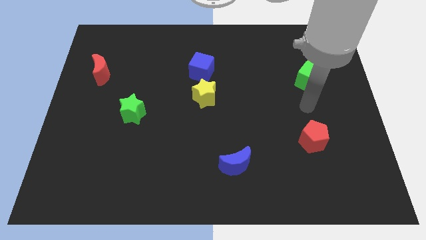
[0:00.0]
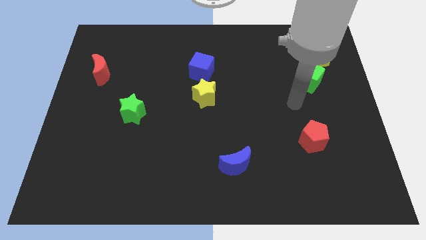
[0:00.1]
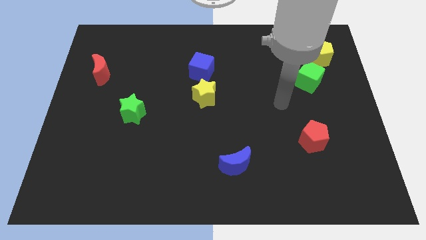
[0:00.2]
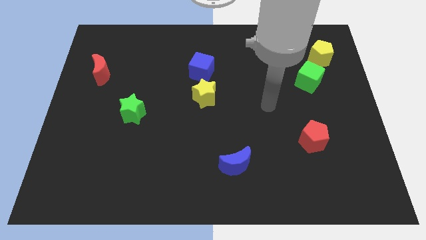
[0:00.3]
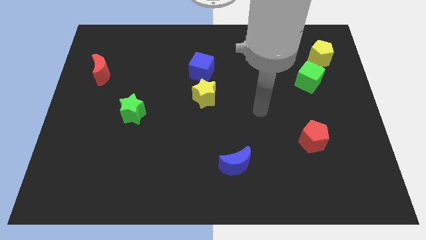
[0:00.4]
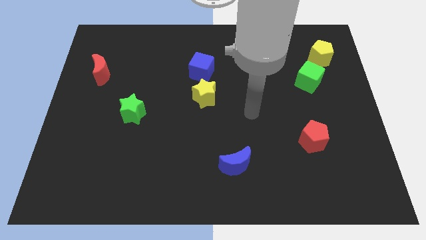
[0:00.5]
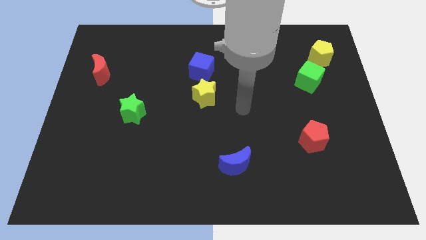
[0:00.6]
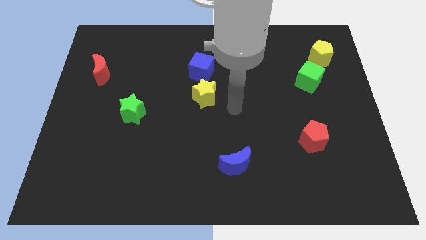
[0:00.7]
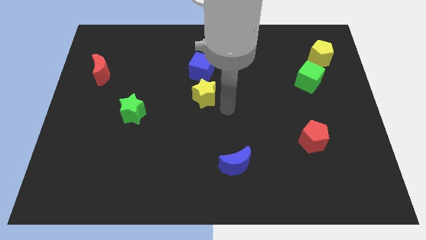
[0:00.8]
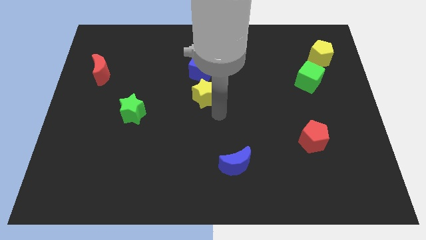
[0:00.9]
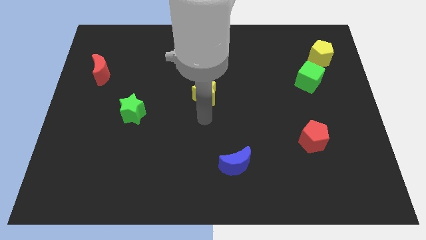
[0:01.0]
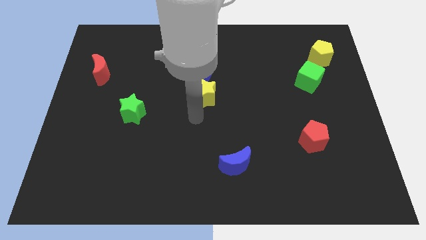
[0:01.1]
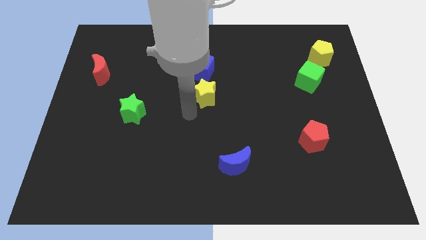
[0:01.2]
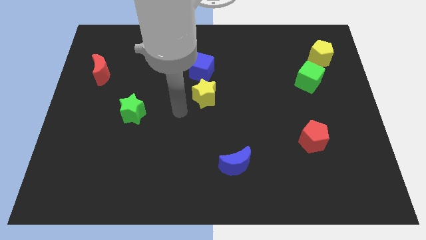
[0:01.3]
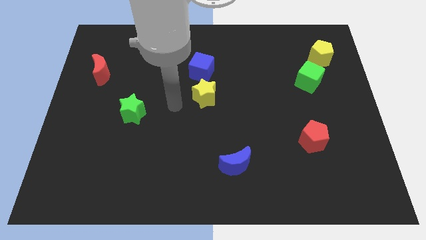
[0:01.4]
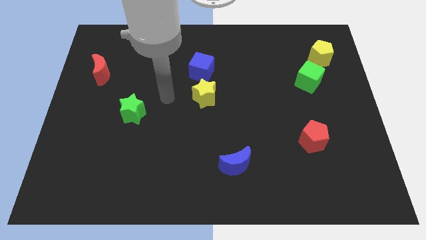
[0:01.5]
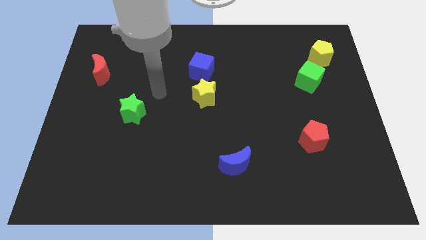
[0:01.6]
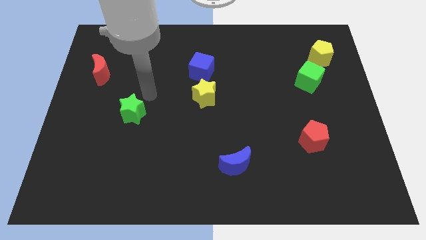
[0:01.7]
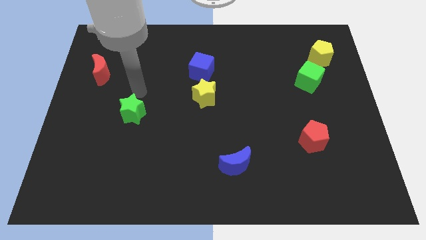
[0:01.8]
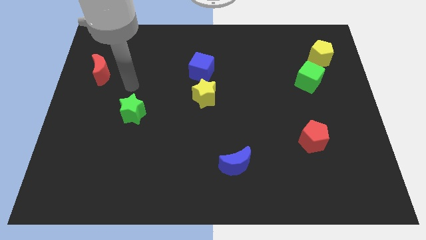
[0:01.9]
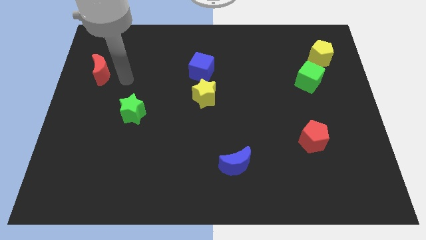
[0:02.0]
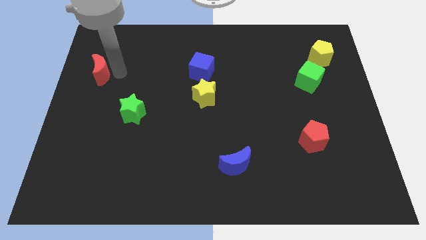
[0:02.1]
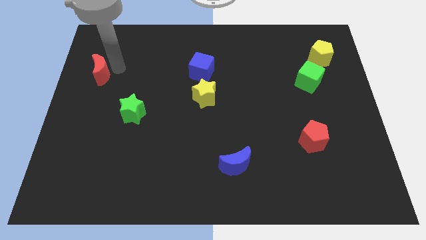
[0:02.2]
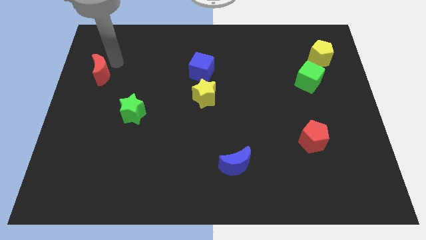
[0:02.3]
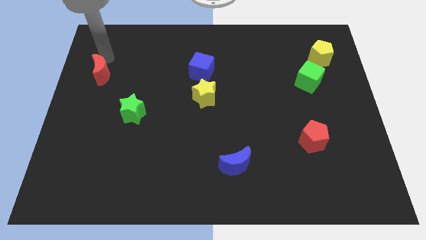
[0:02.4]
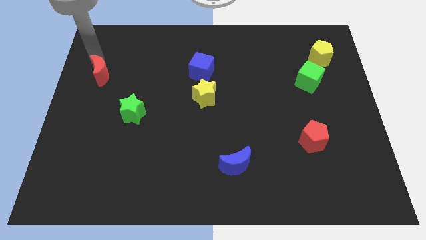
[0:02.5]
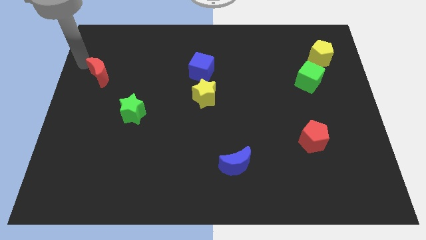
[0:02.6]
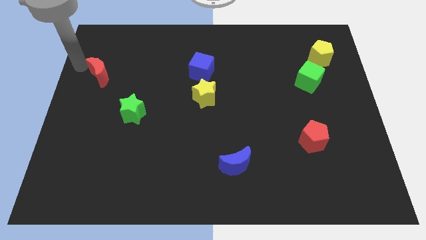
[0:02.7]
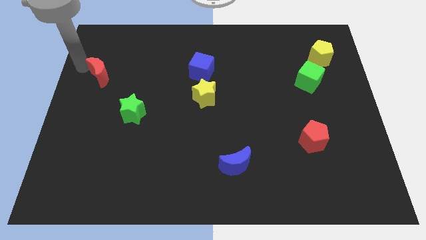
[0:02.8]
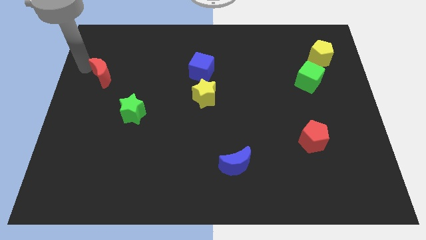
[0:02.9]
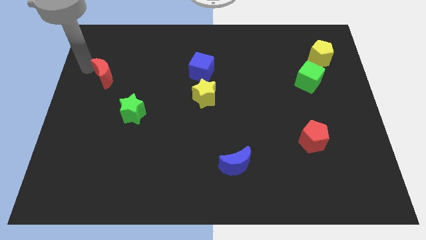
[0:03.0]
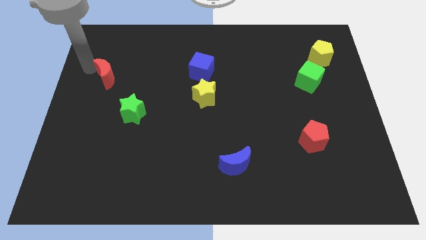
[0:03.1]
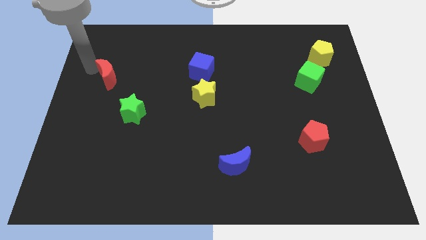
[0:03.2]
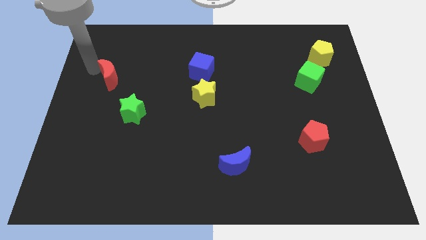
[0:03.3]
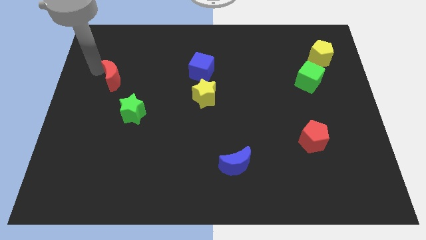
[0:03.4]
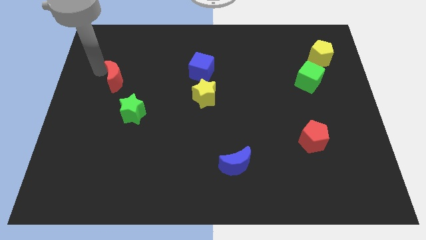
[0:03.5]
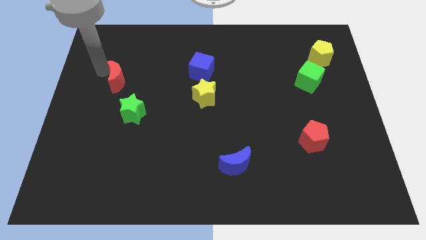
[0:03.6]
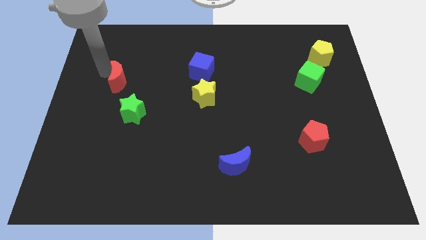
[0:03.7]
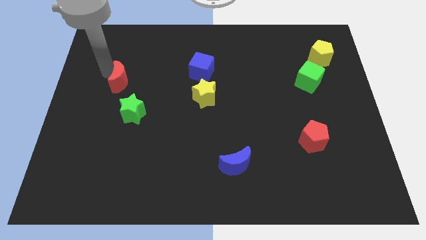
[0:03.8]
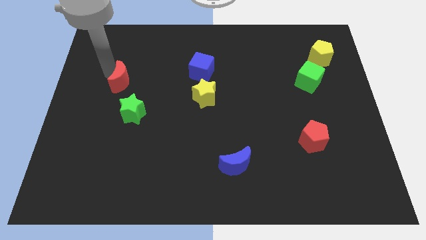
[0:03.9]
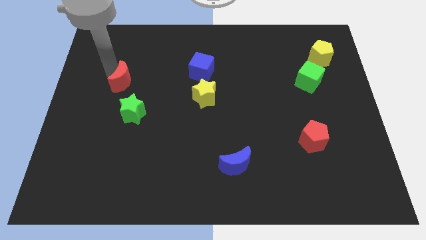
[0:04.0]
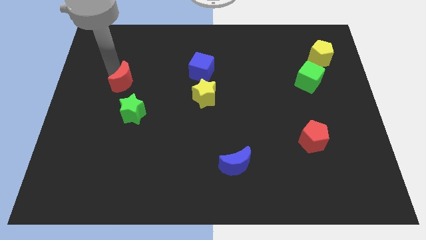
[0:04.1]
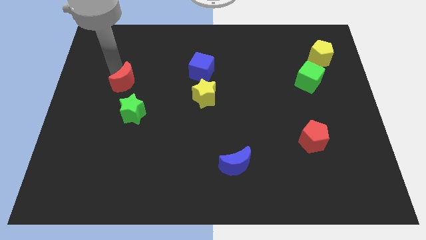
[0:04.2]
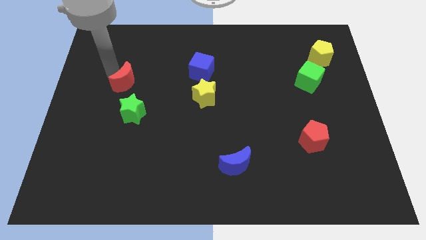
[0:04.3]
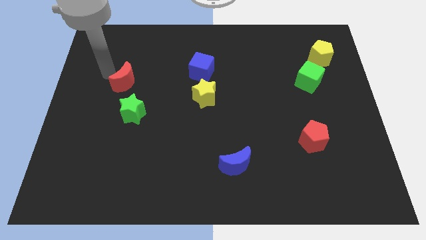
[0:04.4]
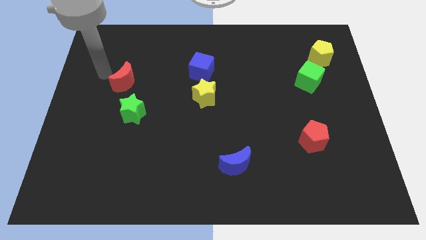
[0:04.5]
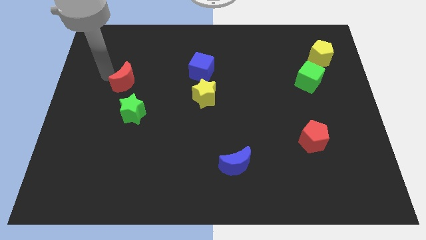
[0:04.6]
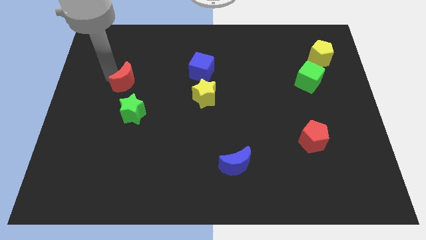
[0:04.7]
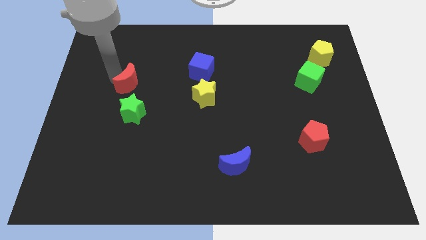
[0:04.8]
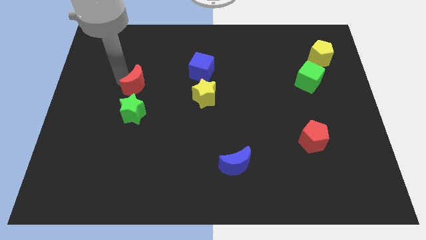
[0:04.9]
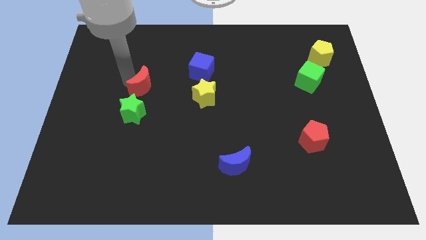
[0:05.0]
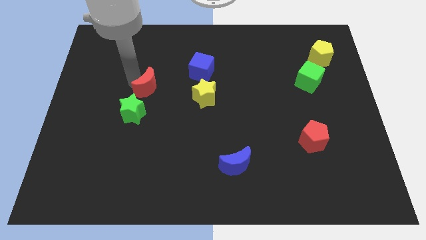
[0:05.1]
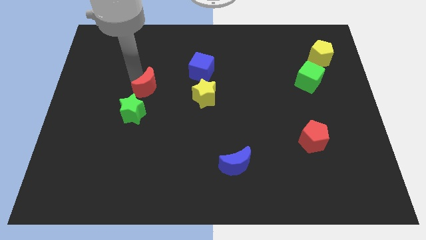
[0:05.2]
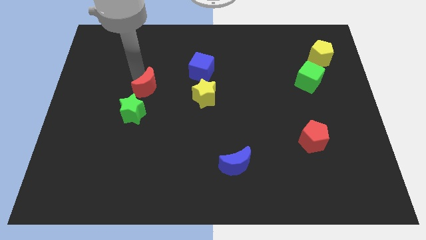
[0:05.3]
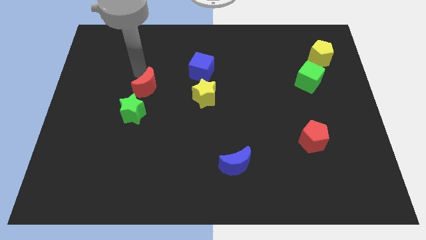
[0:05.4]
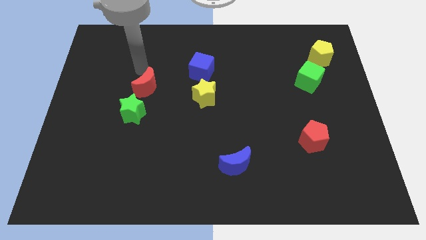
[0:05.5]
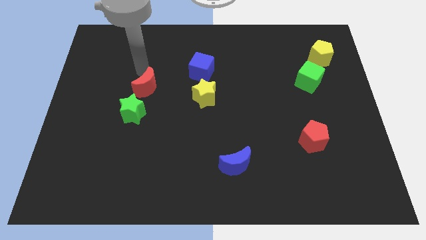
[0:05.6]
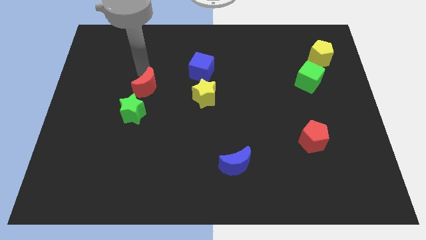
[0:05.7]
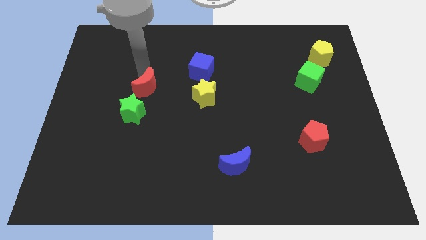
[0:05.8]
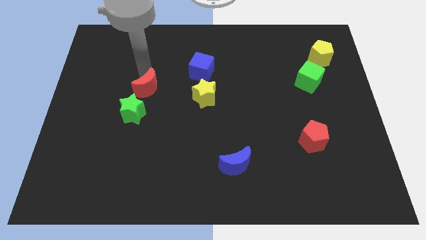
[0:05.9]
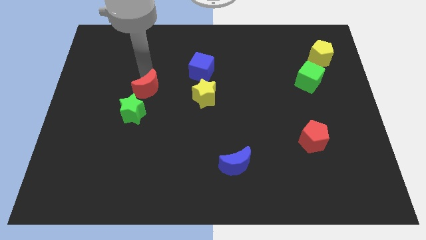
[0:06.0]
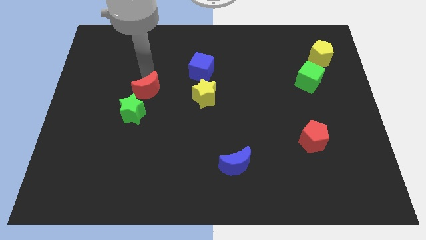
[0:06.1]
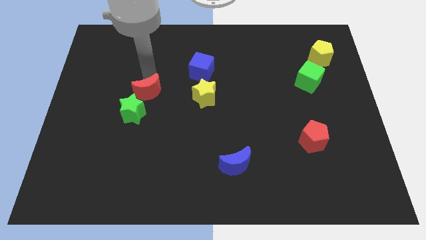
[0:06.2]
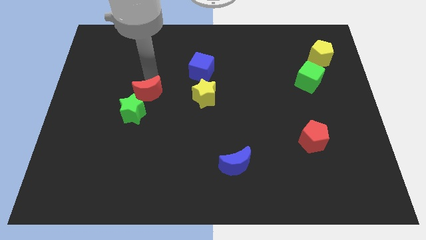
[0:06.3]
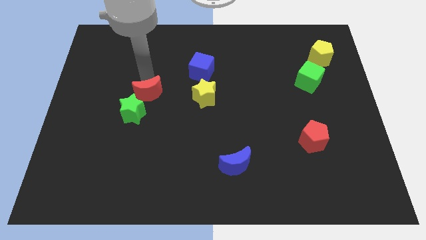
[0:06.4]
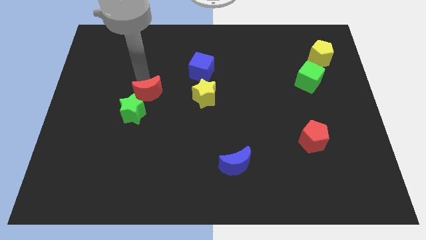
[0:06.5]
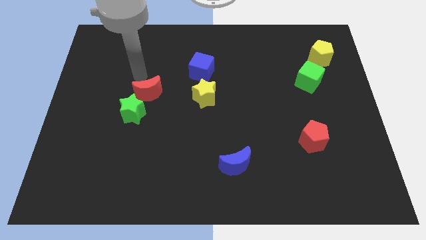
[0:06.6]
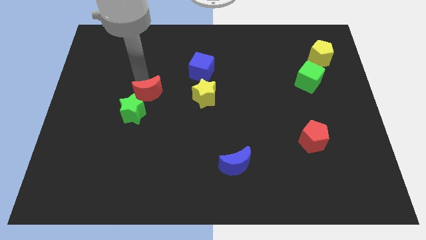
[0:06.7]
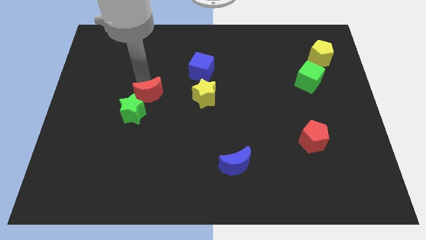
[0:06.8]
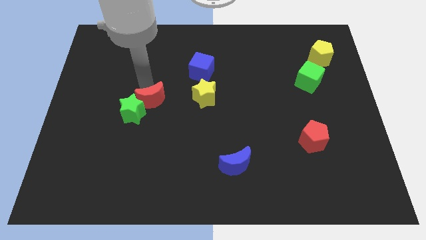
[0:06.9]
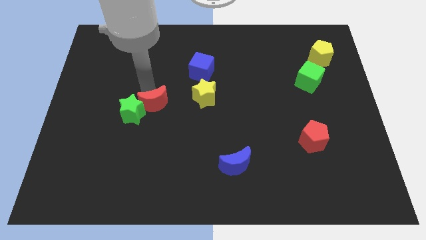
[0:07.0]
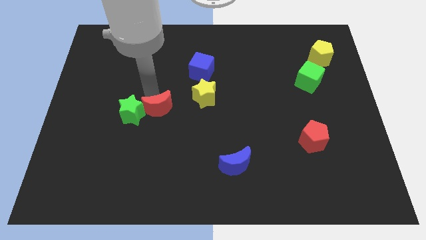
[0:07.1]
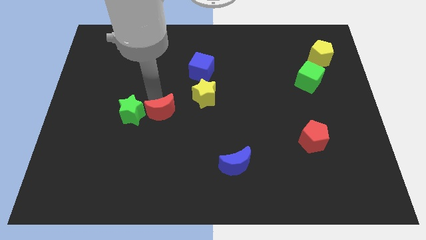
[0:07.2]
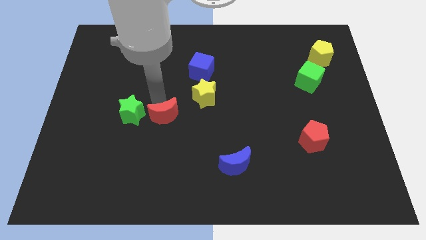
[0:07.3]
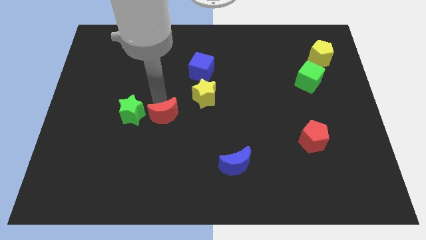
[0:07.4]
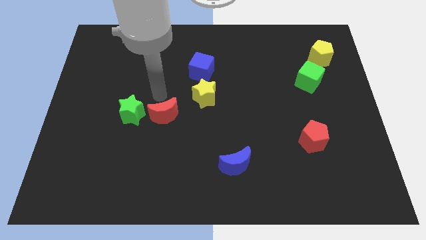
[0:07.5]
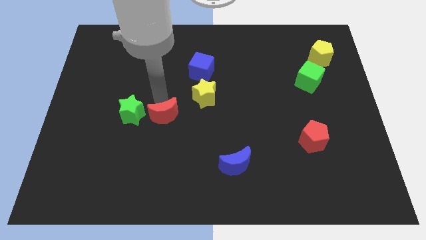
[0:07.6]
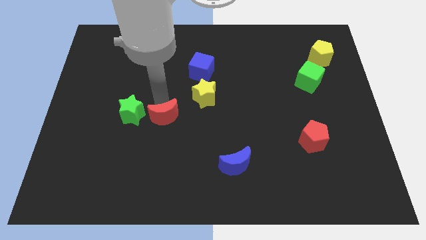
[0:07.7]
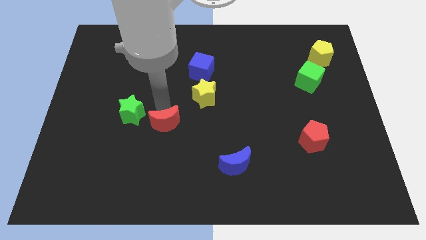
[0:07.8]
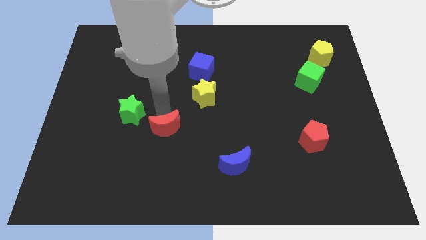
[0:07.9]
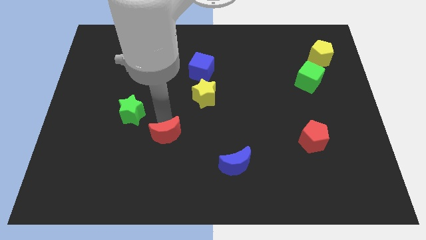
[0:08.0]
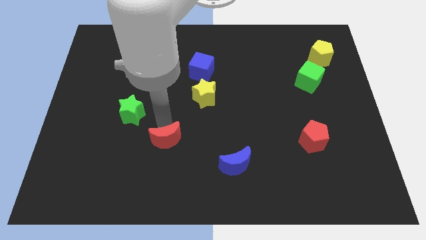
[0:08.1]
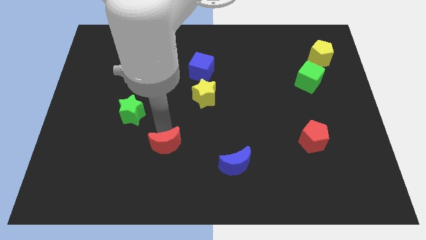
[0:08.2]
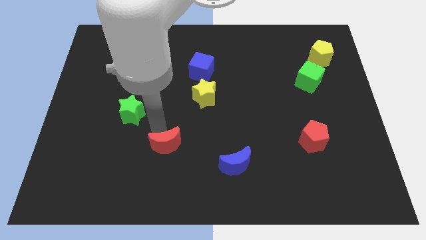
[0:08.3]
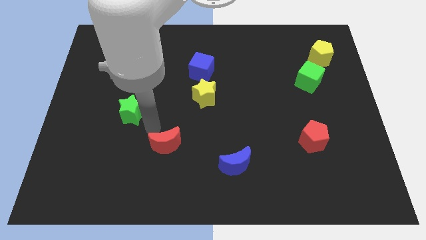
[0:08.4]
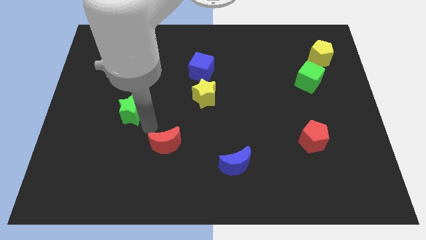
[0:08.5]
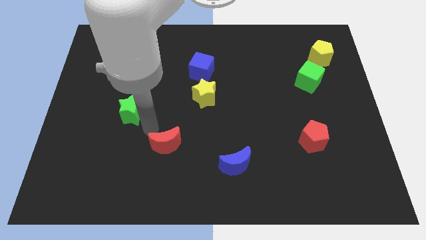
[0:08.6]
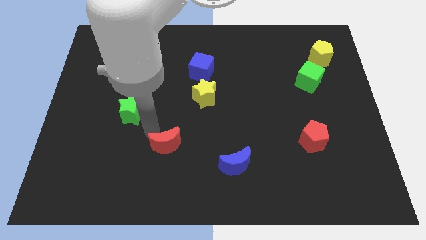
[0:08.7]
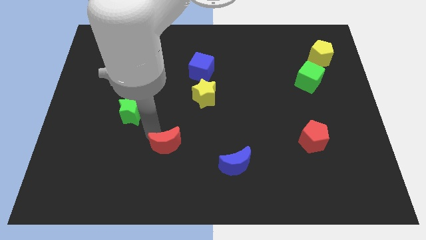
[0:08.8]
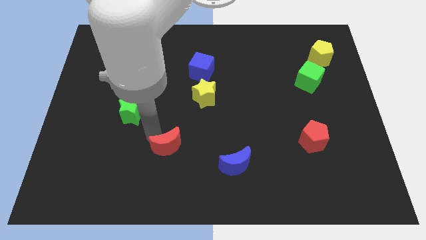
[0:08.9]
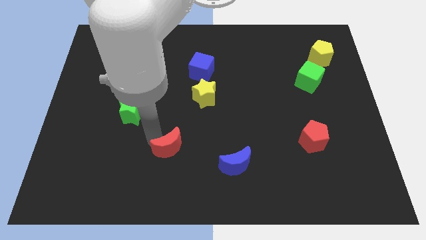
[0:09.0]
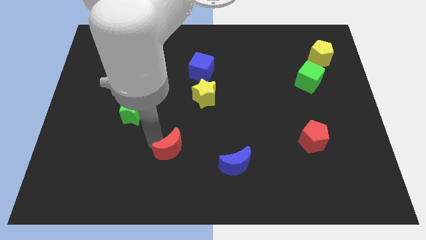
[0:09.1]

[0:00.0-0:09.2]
push the red moon left of the blue moon
